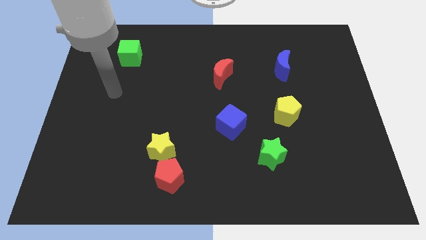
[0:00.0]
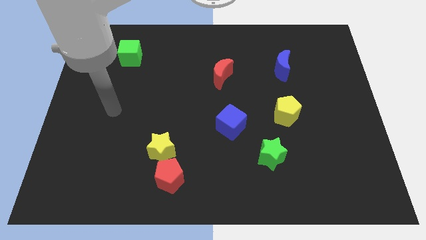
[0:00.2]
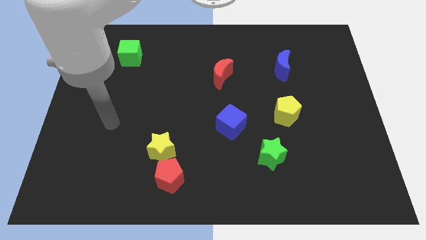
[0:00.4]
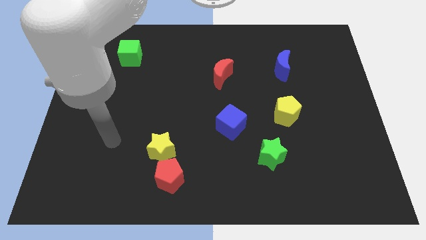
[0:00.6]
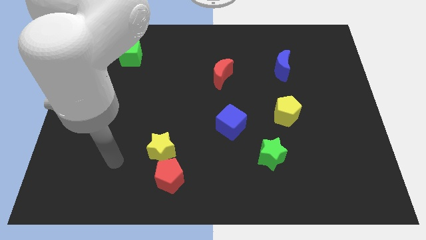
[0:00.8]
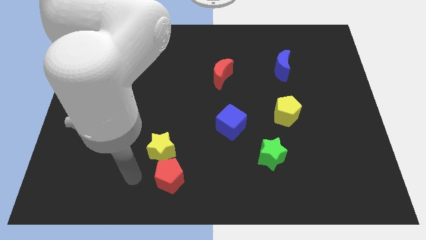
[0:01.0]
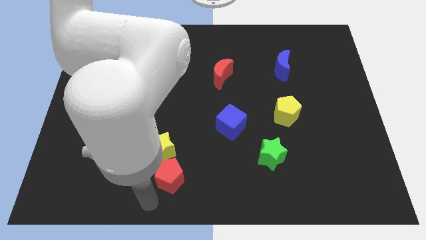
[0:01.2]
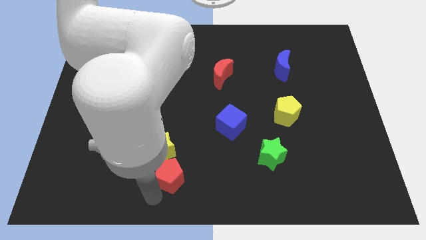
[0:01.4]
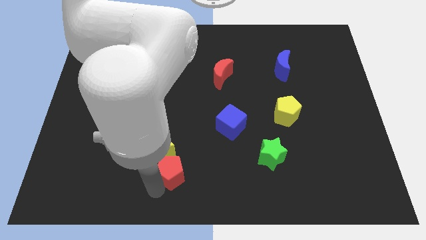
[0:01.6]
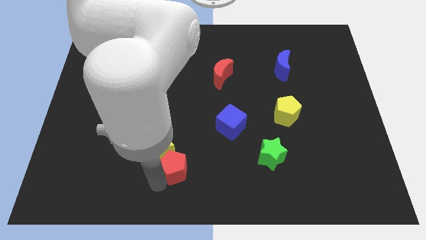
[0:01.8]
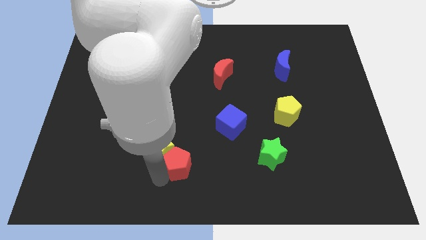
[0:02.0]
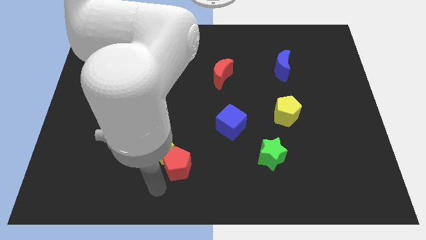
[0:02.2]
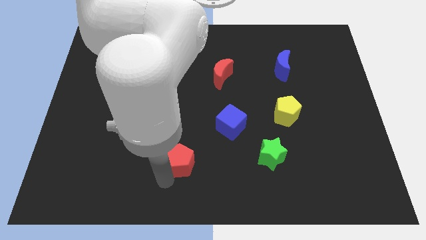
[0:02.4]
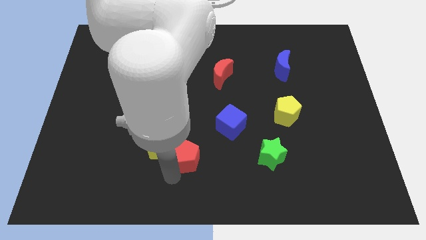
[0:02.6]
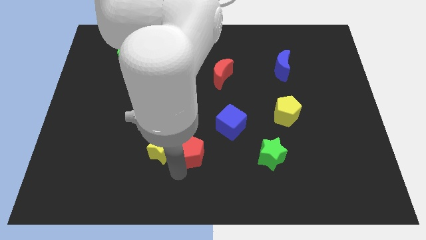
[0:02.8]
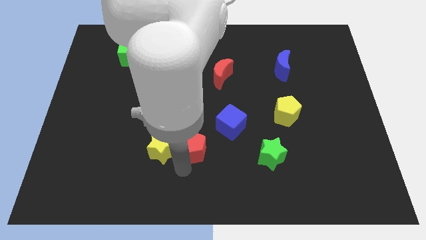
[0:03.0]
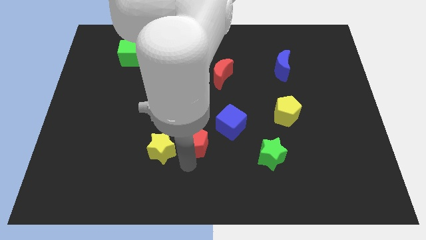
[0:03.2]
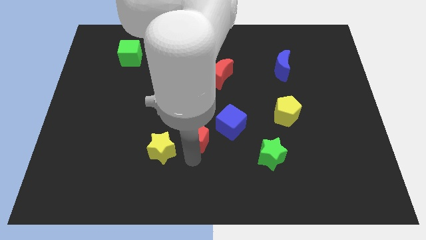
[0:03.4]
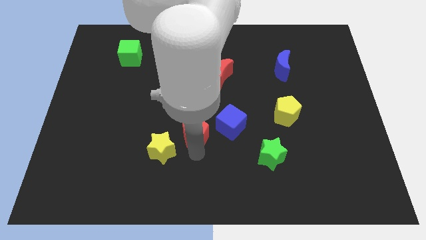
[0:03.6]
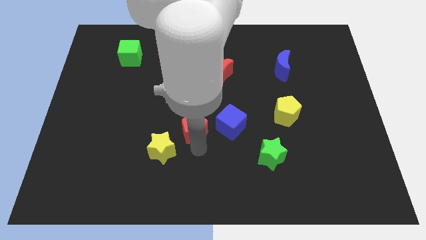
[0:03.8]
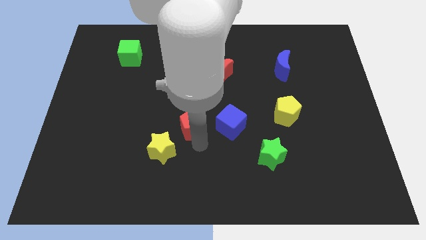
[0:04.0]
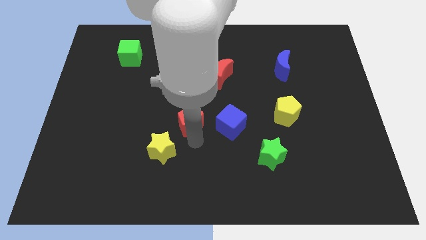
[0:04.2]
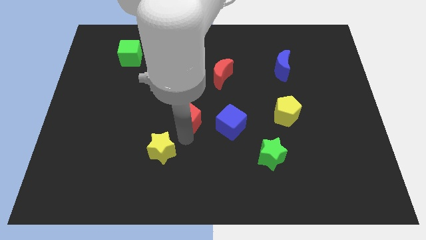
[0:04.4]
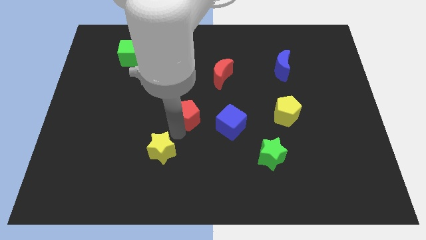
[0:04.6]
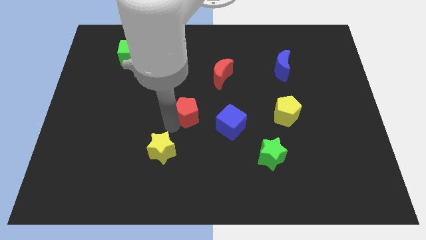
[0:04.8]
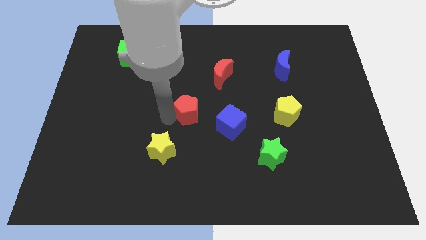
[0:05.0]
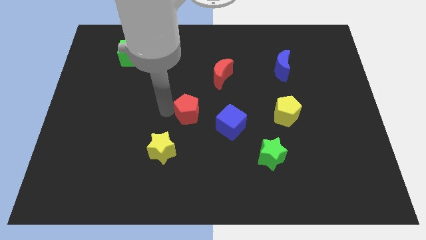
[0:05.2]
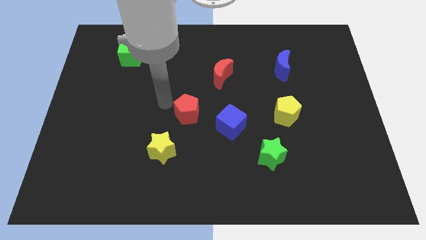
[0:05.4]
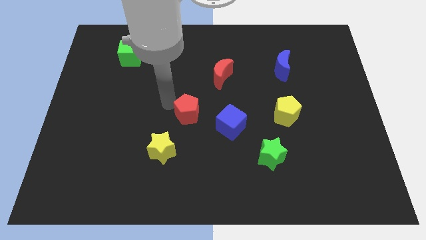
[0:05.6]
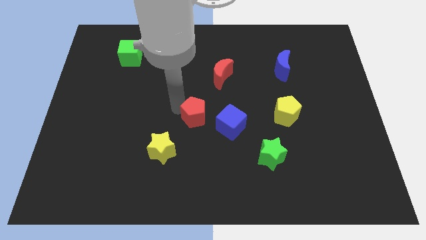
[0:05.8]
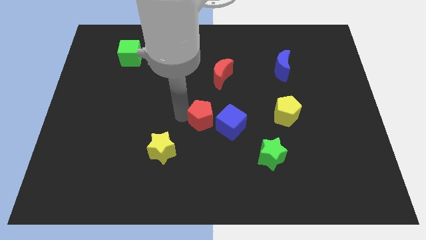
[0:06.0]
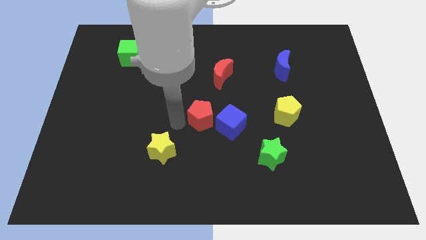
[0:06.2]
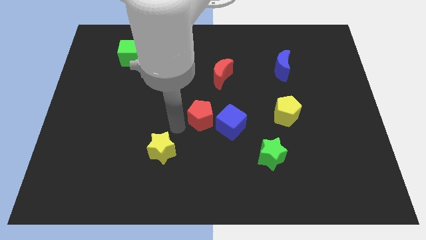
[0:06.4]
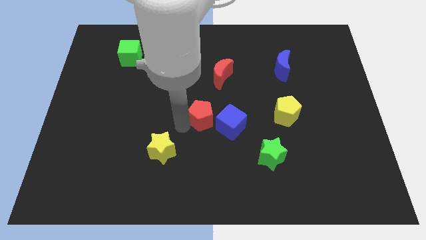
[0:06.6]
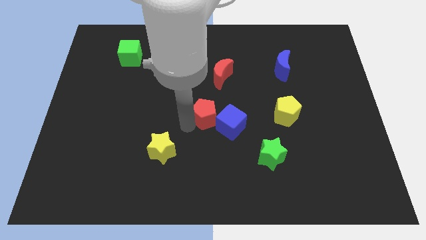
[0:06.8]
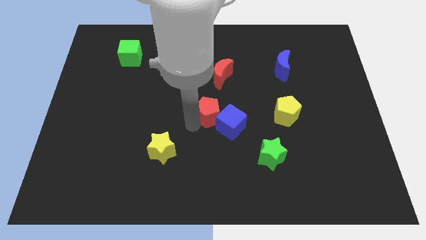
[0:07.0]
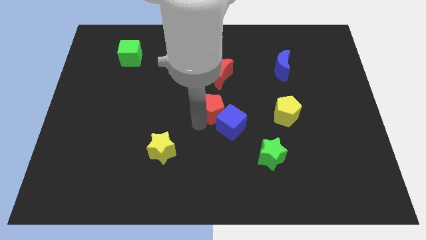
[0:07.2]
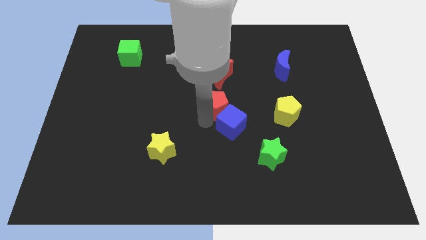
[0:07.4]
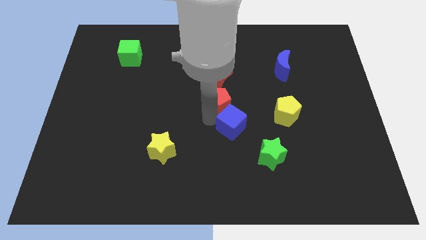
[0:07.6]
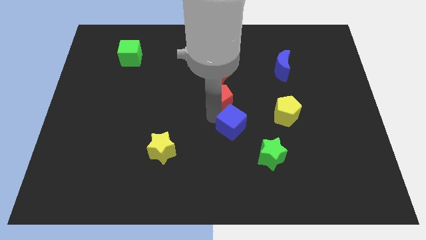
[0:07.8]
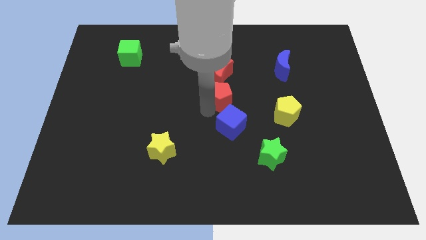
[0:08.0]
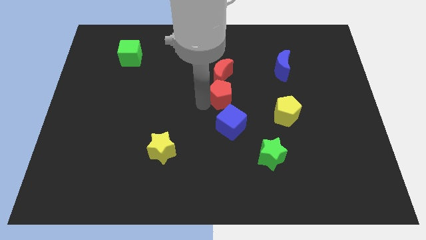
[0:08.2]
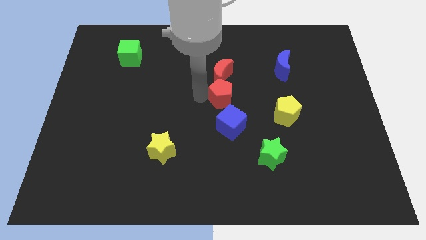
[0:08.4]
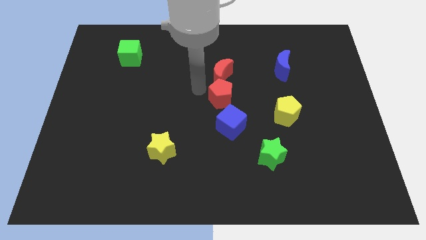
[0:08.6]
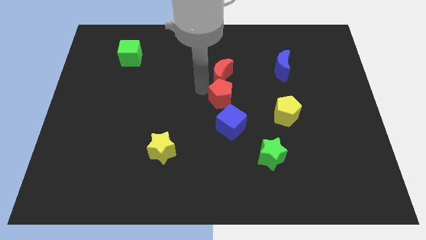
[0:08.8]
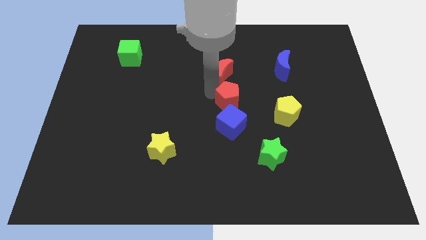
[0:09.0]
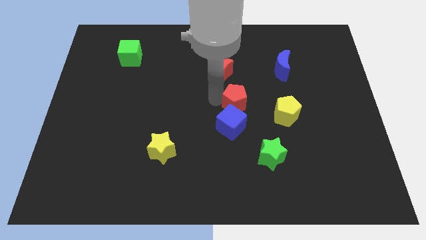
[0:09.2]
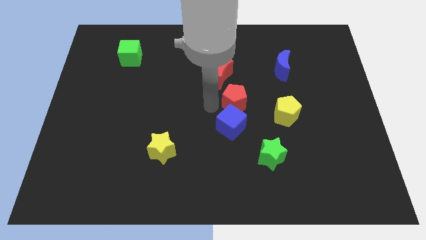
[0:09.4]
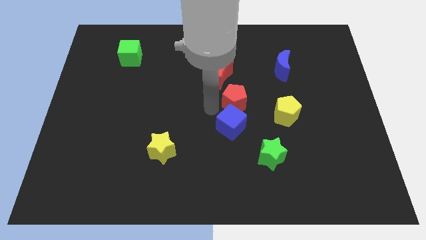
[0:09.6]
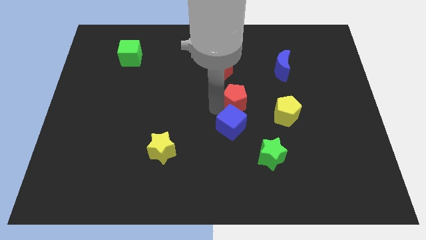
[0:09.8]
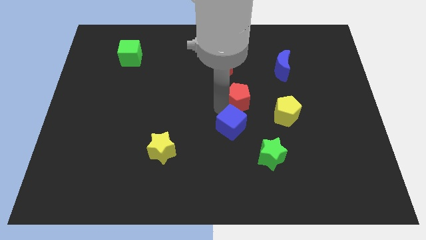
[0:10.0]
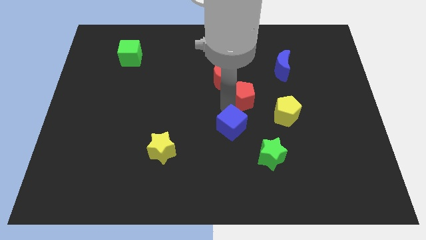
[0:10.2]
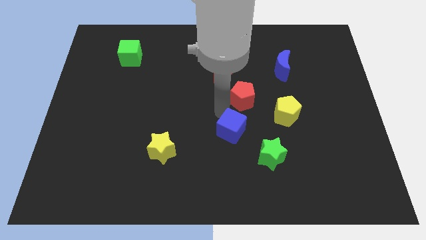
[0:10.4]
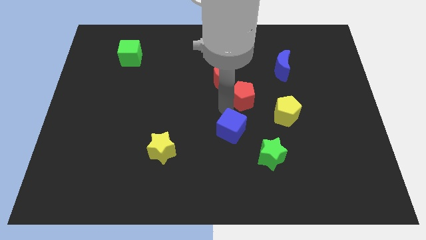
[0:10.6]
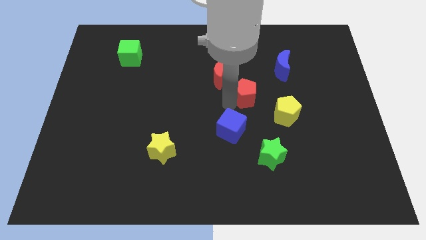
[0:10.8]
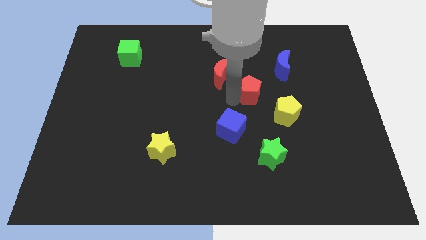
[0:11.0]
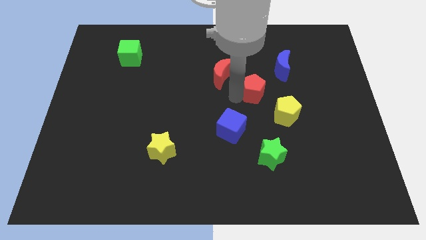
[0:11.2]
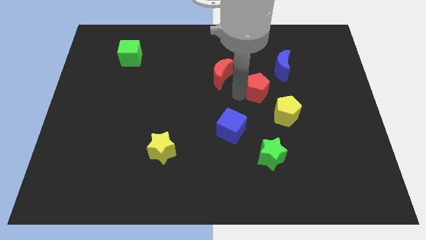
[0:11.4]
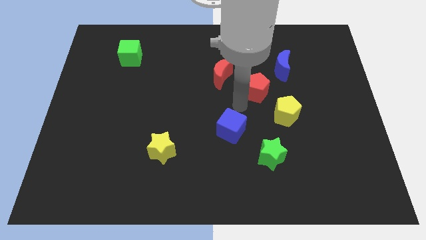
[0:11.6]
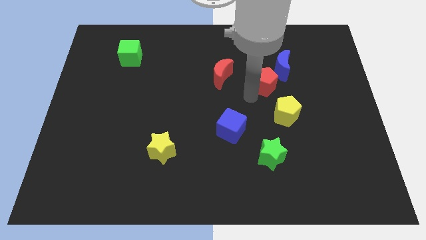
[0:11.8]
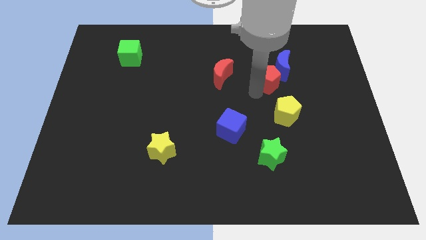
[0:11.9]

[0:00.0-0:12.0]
push the red pentagon towards the blue moon

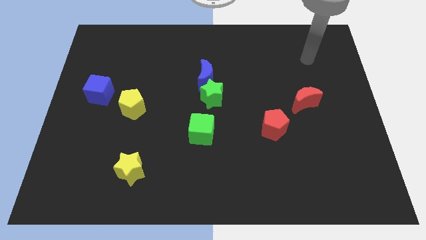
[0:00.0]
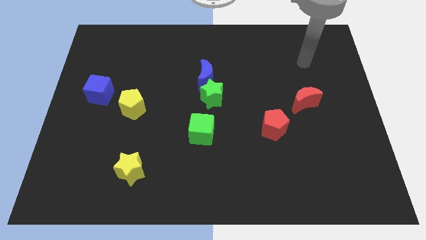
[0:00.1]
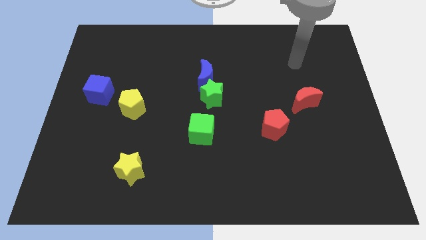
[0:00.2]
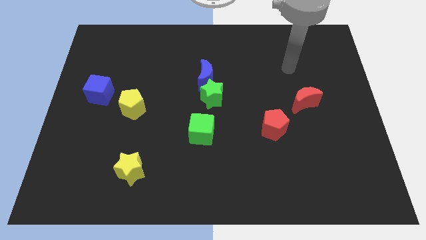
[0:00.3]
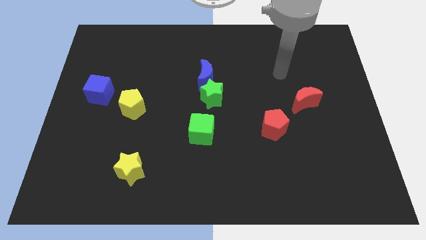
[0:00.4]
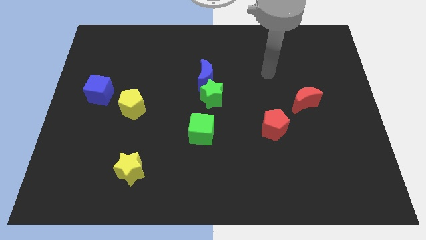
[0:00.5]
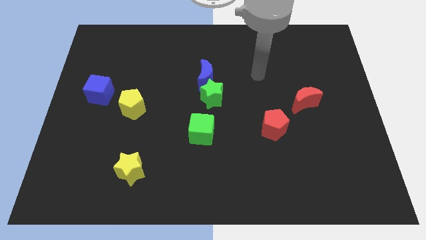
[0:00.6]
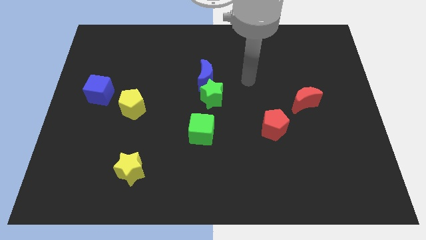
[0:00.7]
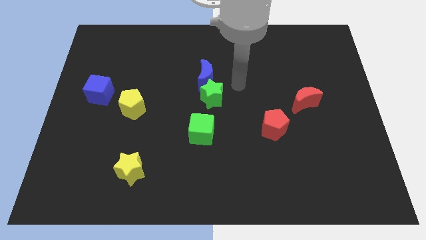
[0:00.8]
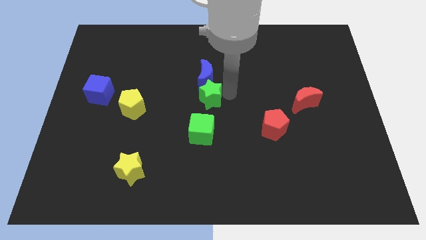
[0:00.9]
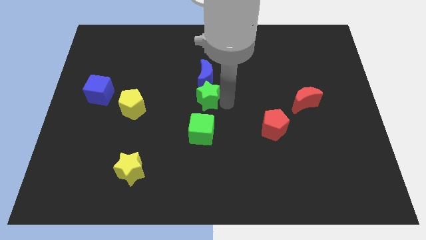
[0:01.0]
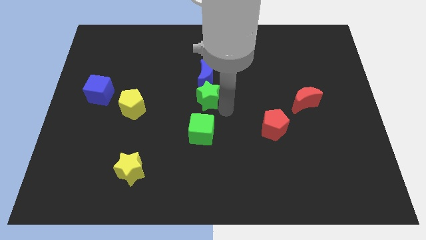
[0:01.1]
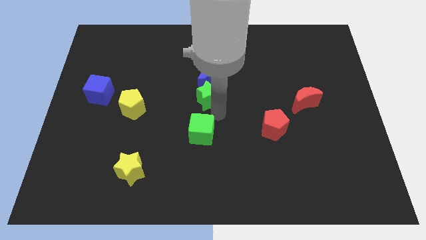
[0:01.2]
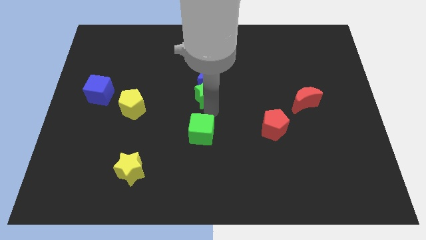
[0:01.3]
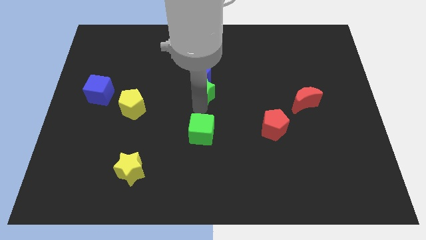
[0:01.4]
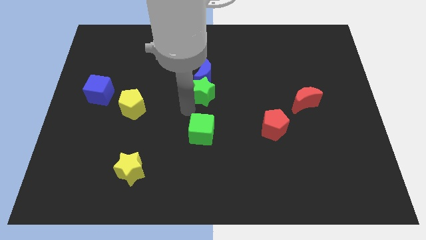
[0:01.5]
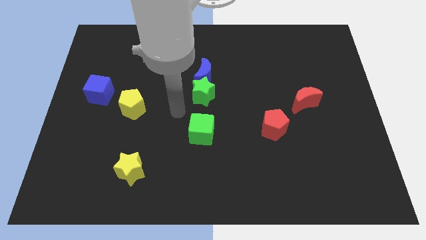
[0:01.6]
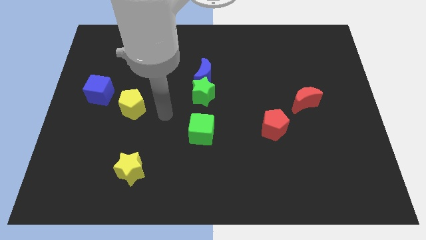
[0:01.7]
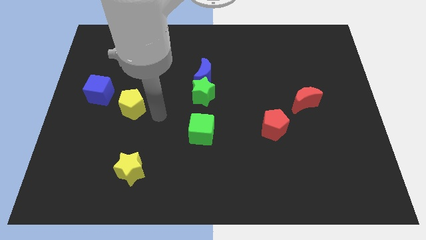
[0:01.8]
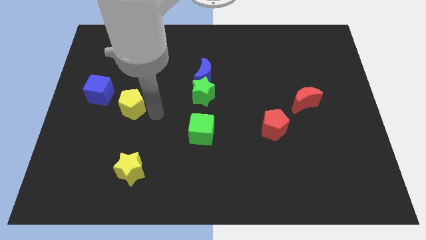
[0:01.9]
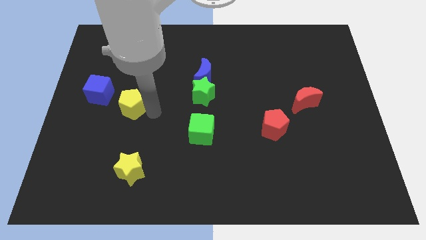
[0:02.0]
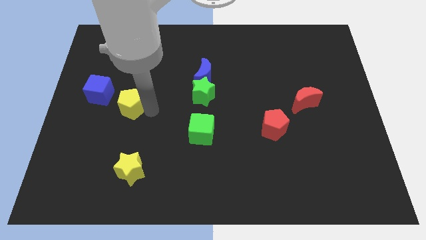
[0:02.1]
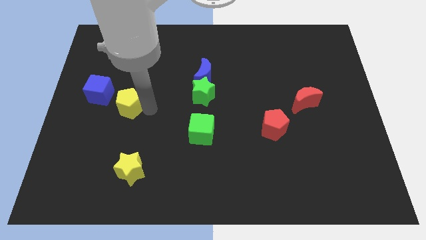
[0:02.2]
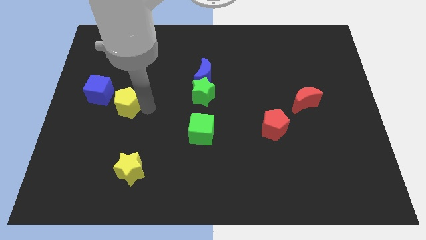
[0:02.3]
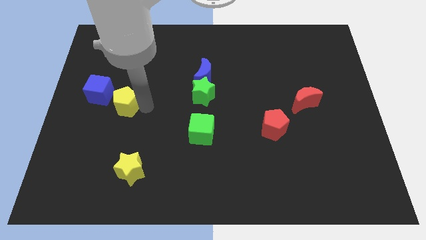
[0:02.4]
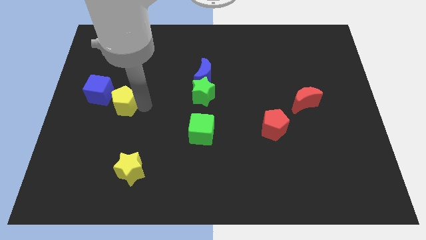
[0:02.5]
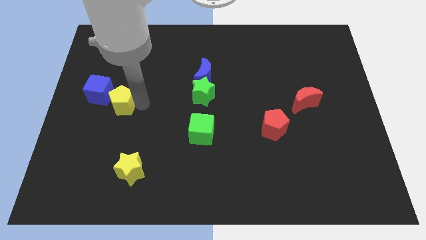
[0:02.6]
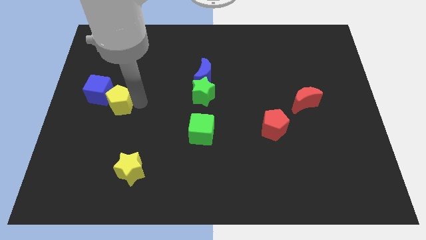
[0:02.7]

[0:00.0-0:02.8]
push the yellow pentagon next to the blue cube
